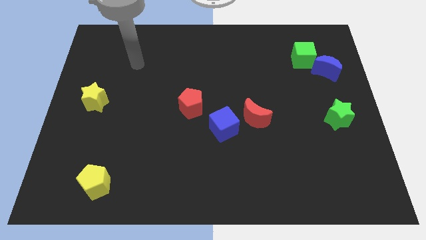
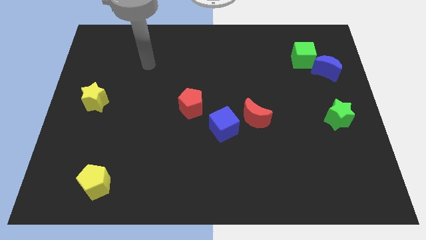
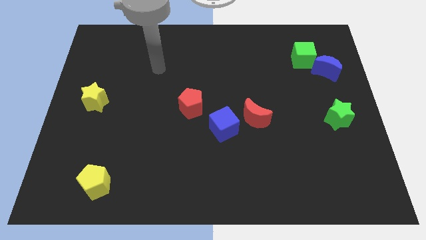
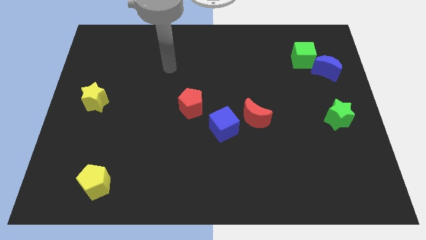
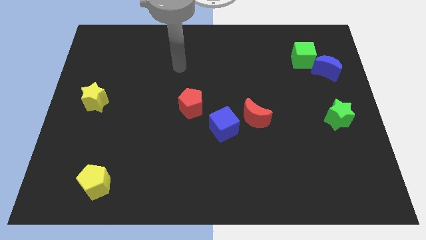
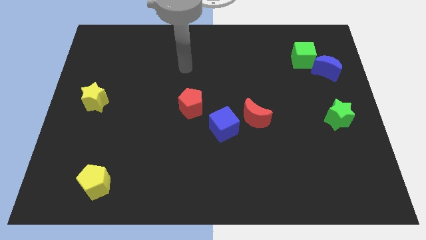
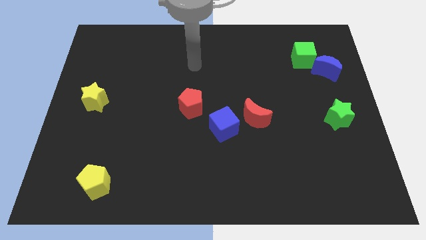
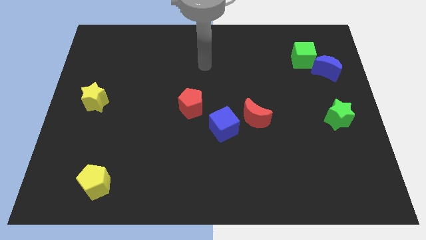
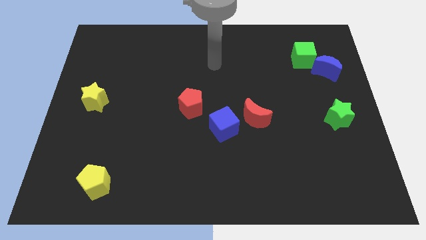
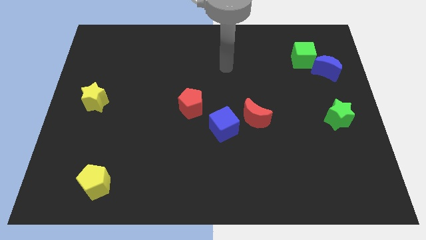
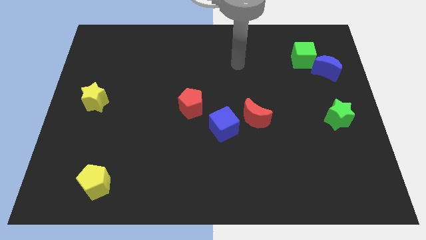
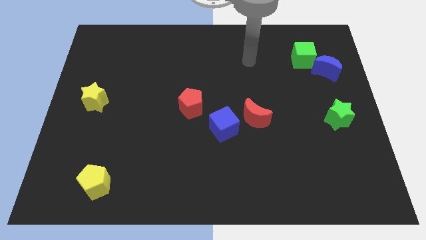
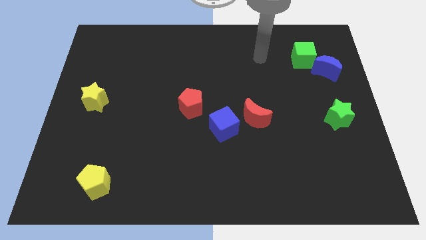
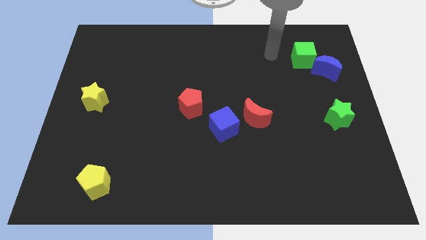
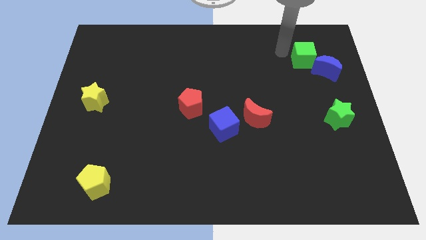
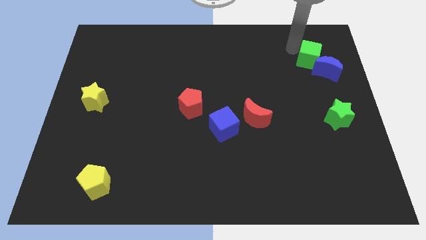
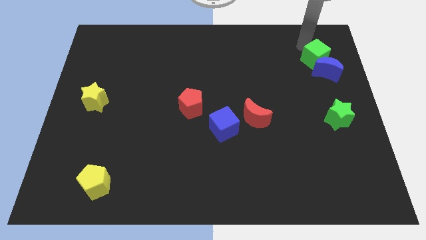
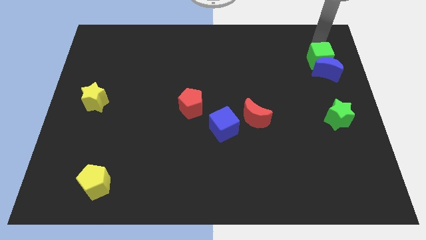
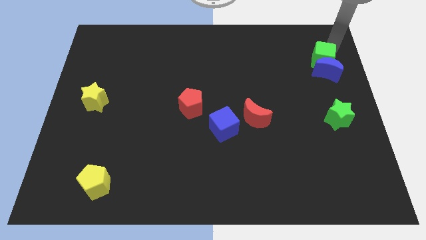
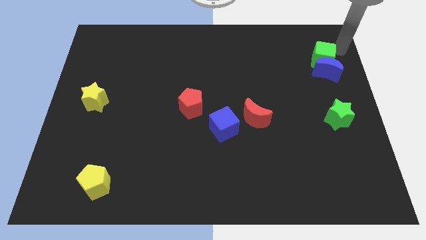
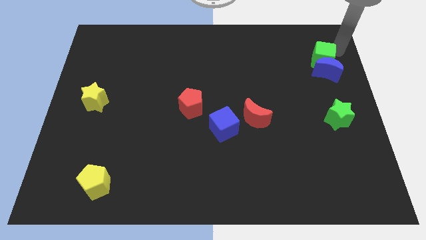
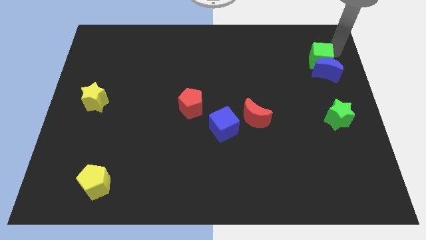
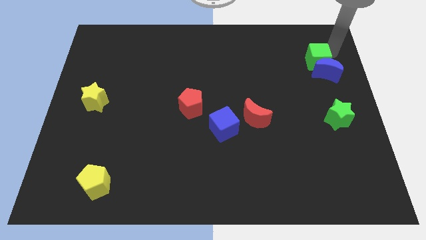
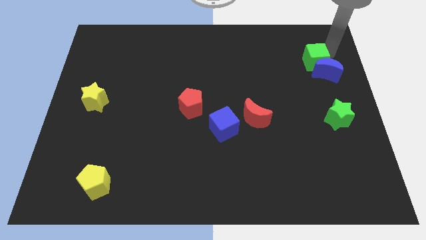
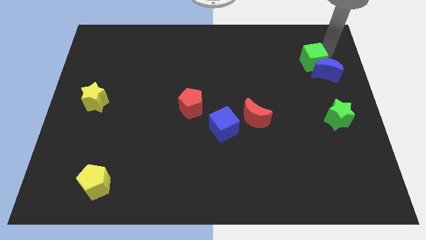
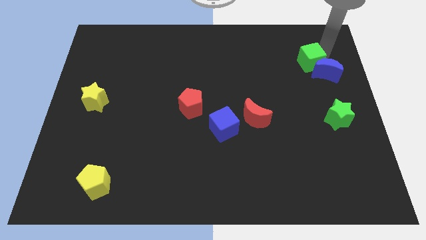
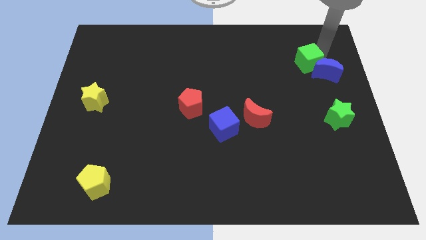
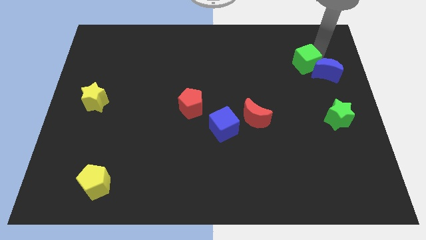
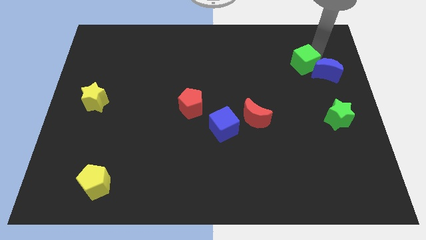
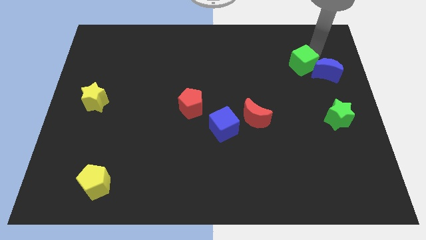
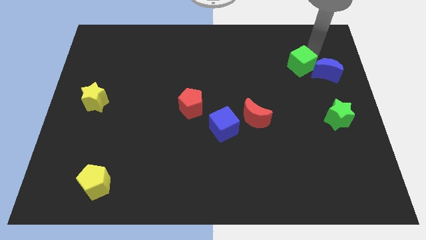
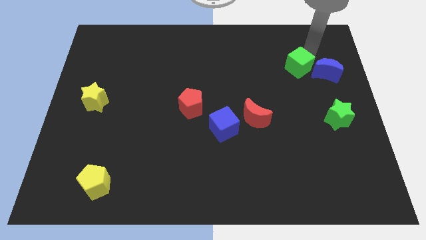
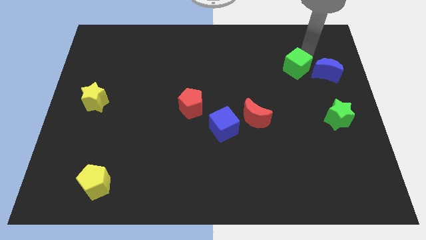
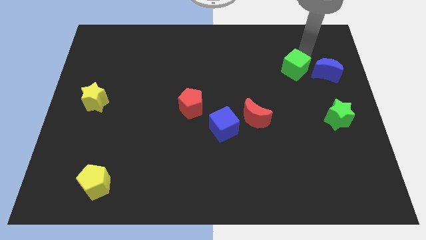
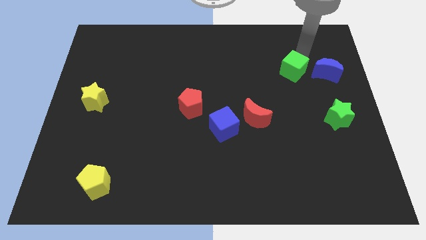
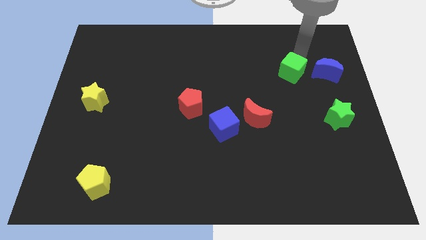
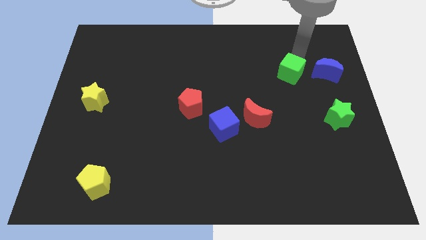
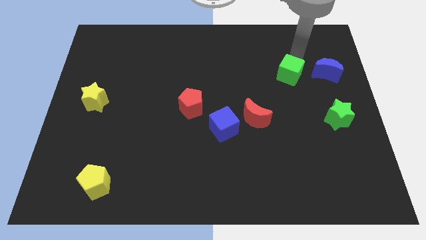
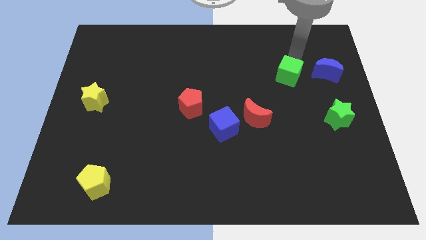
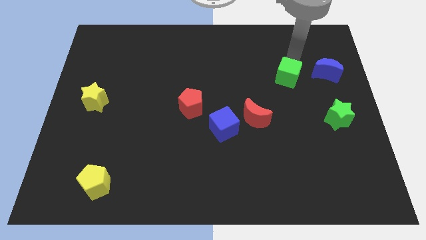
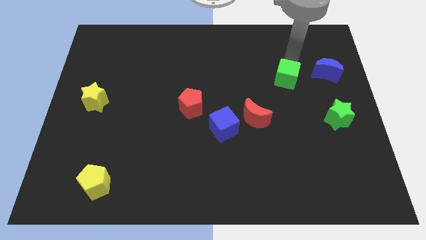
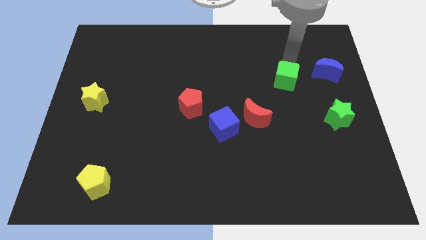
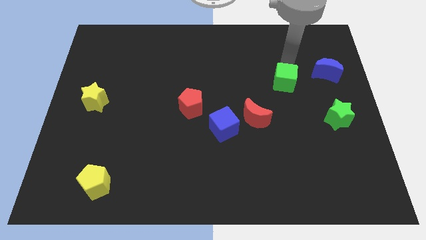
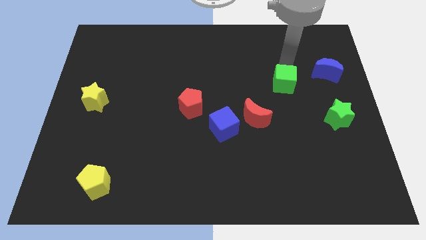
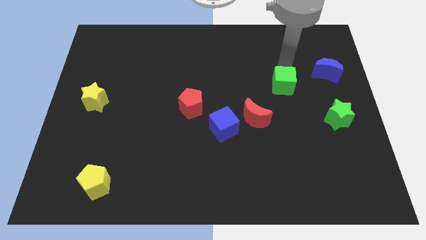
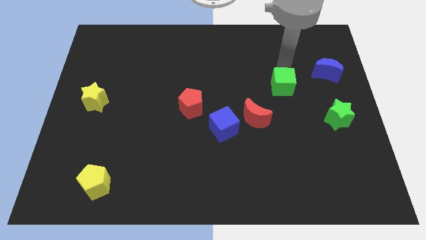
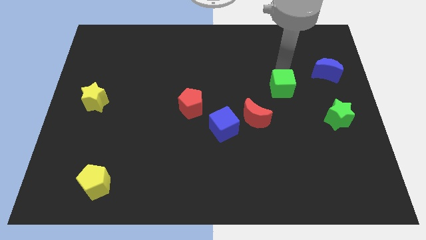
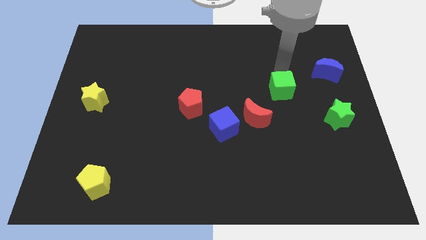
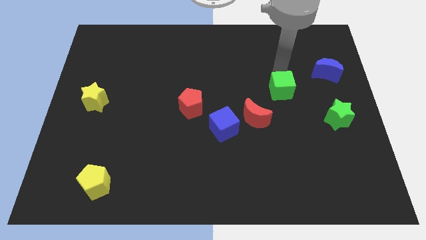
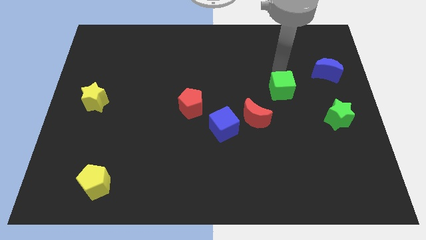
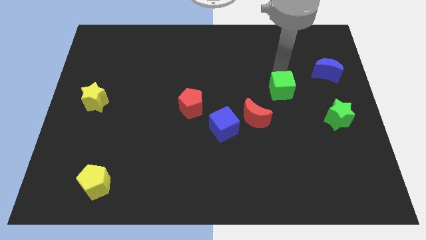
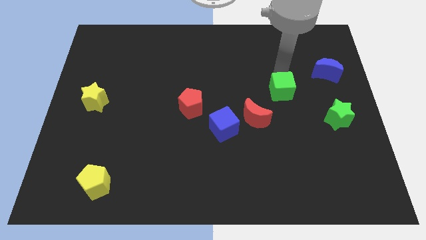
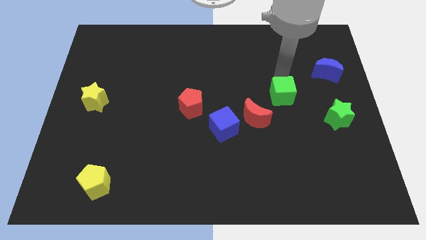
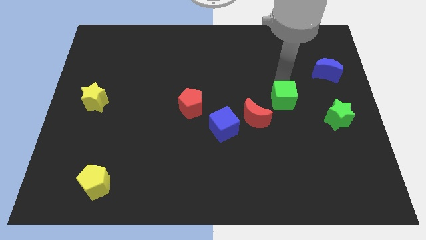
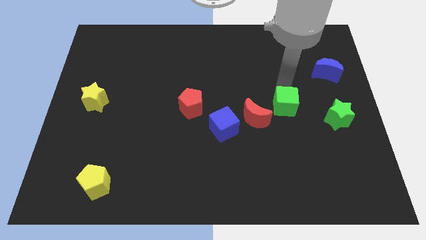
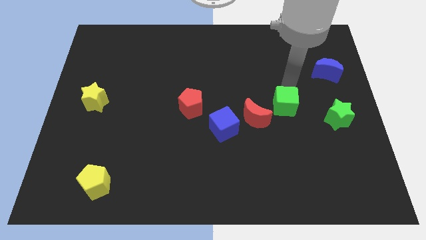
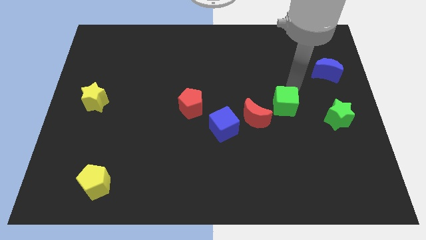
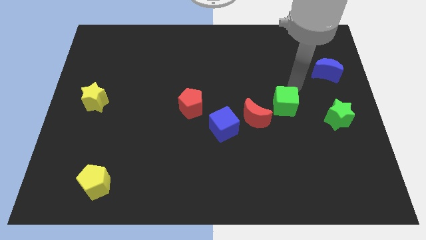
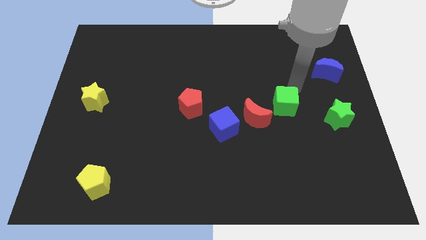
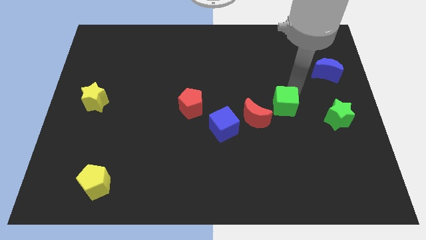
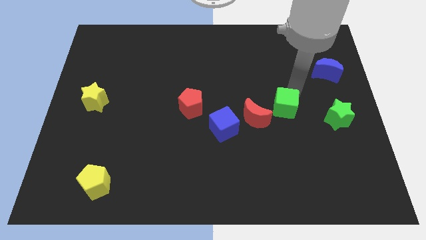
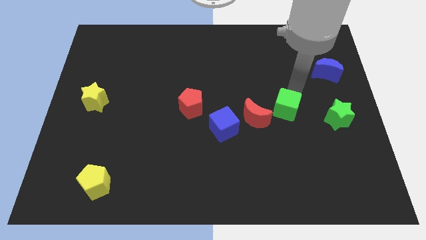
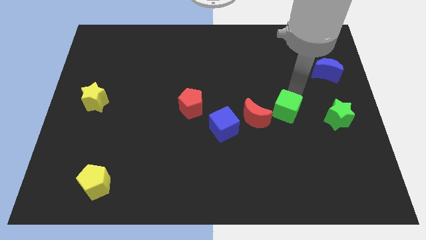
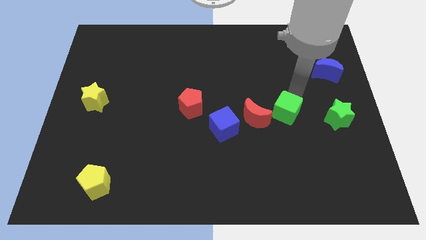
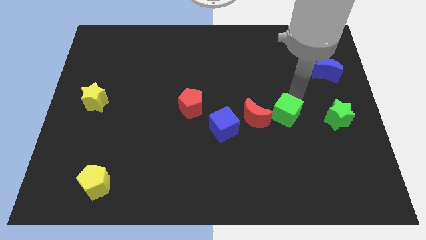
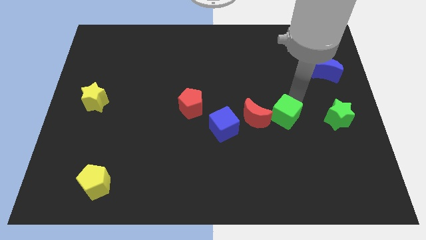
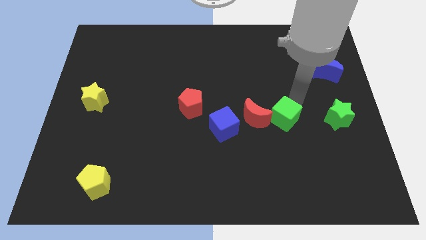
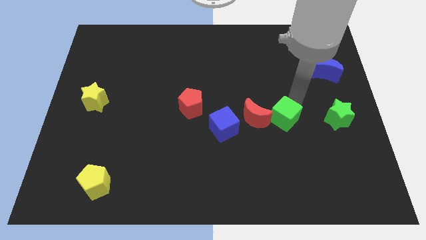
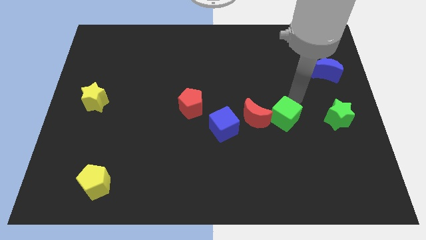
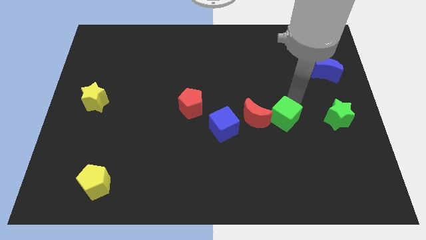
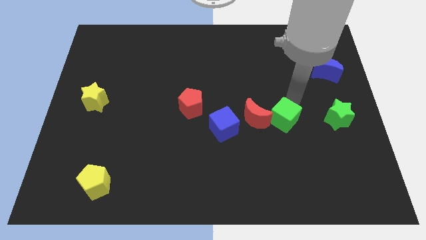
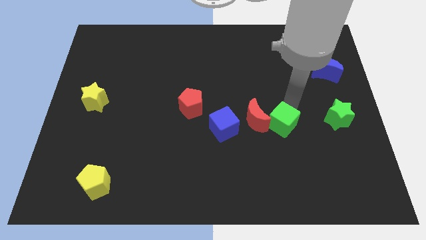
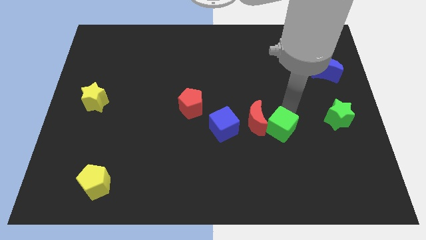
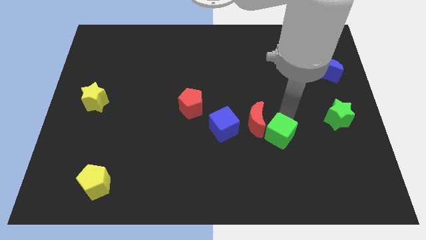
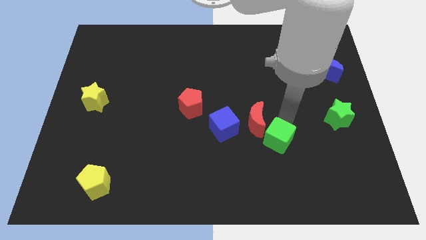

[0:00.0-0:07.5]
slide the green cube below the red moon
